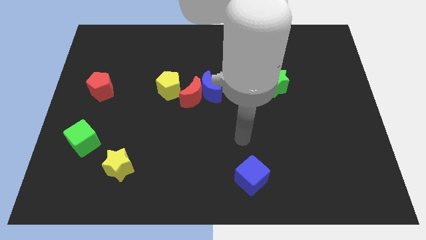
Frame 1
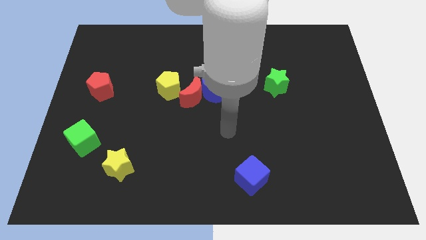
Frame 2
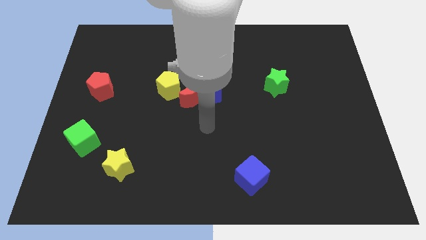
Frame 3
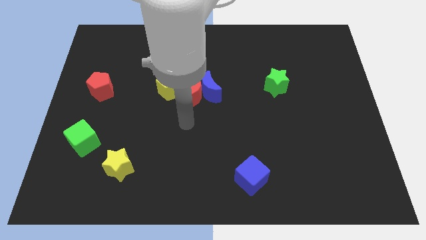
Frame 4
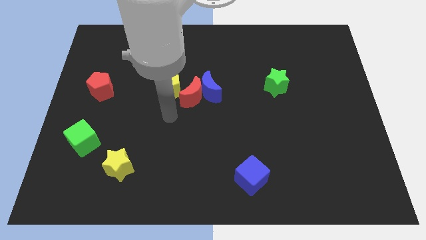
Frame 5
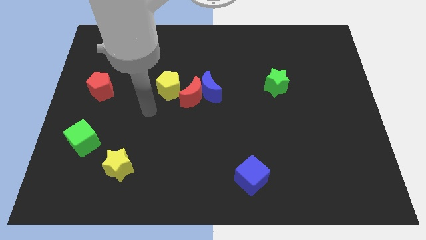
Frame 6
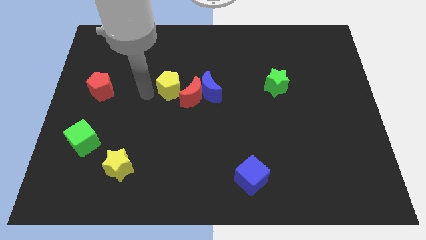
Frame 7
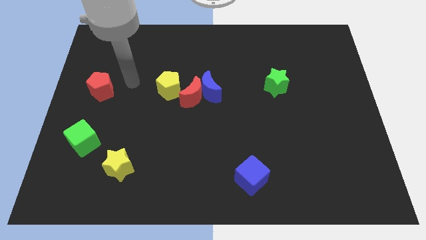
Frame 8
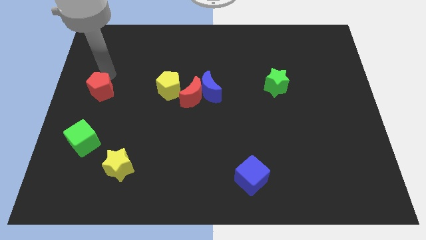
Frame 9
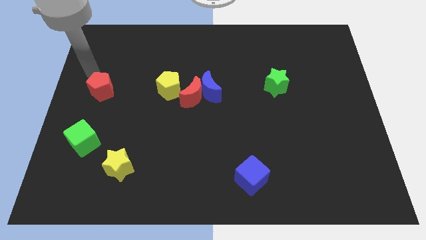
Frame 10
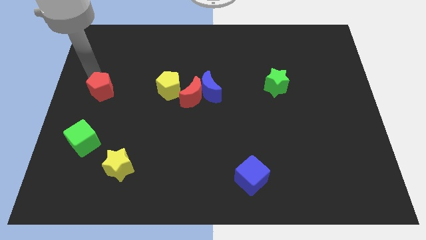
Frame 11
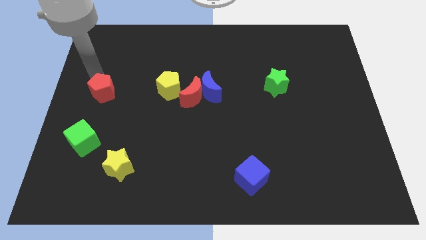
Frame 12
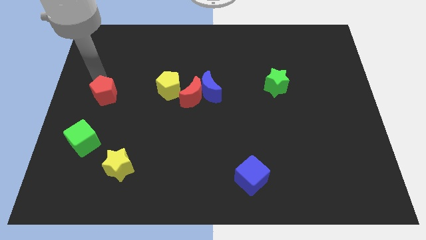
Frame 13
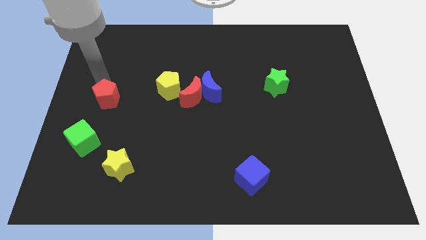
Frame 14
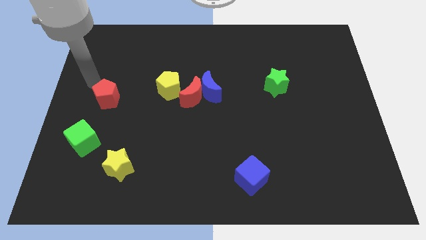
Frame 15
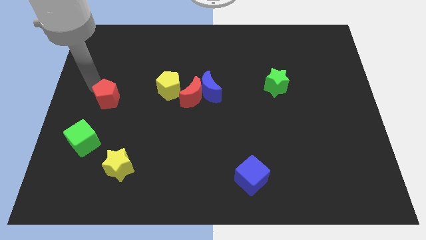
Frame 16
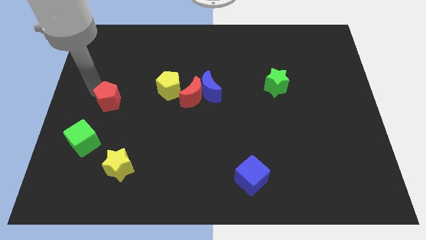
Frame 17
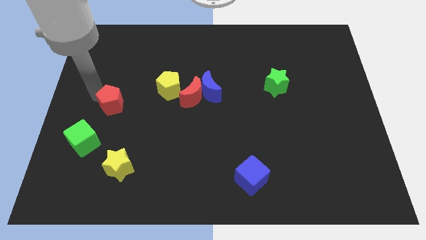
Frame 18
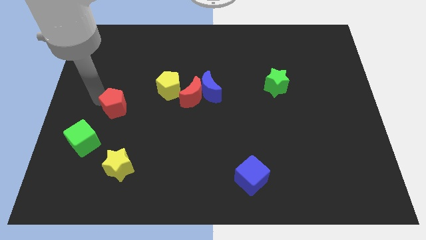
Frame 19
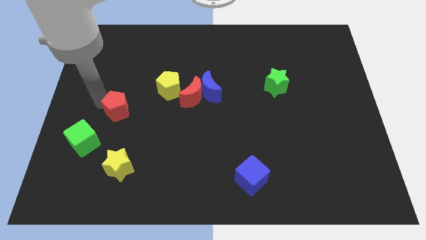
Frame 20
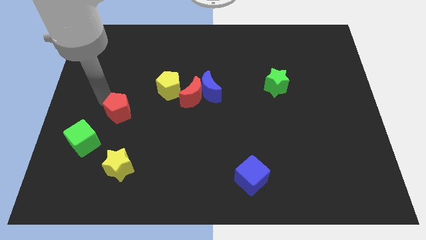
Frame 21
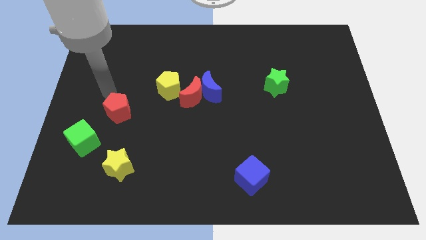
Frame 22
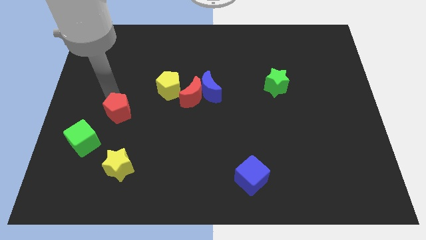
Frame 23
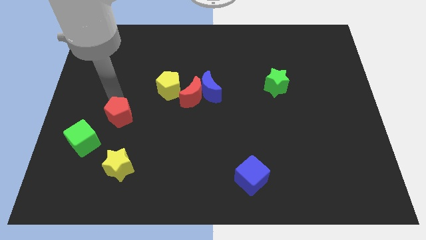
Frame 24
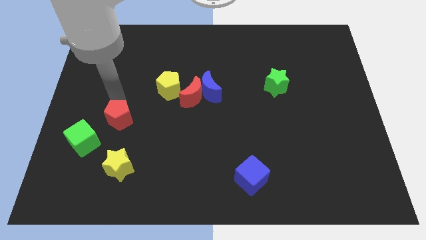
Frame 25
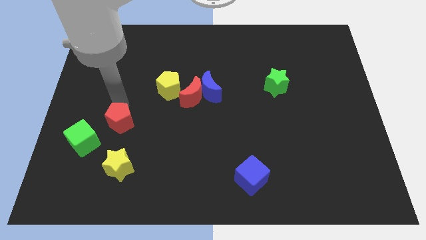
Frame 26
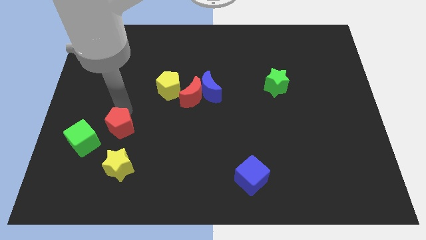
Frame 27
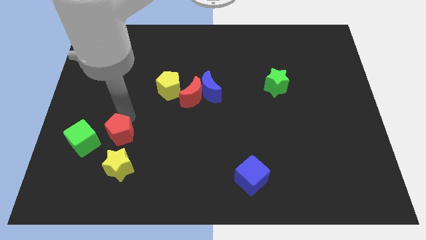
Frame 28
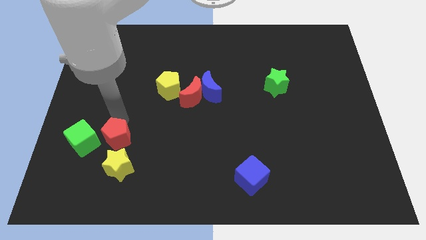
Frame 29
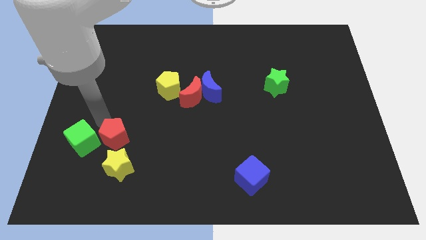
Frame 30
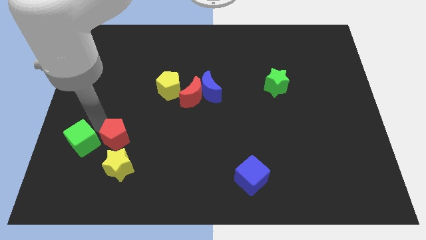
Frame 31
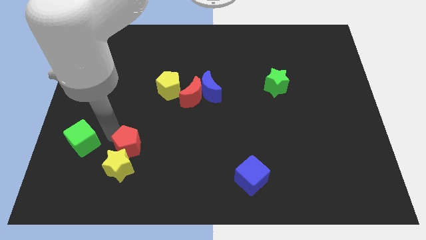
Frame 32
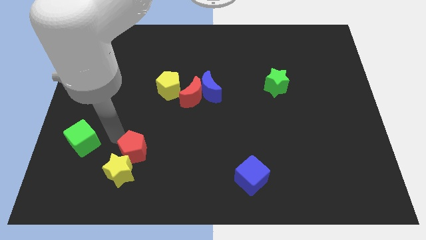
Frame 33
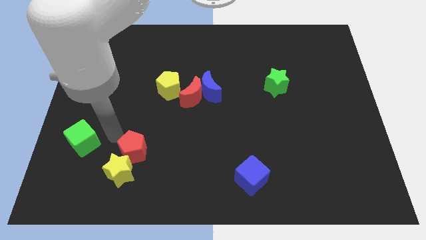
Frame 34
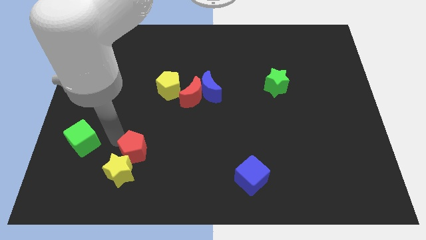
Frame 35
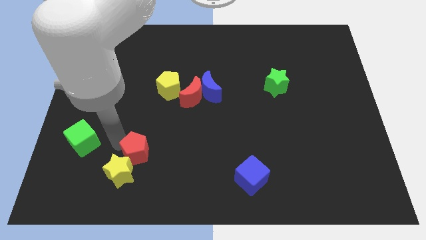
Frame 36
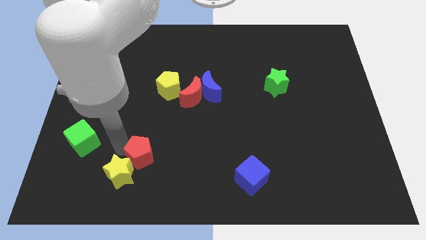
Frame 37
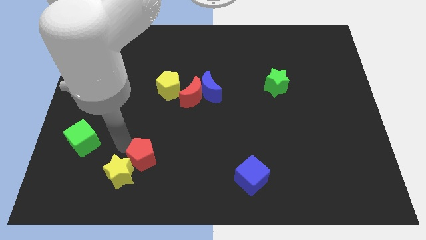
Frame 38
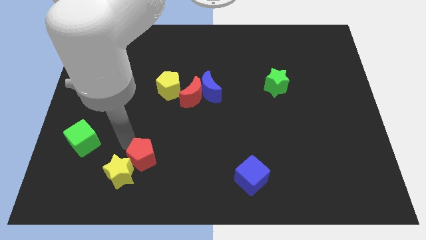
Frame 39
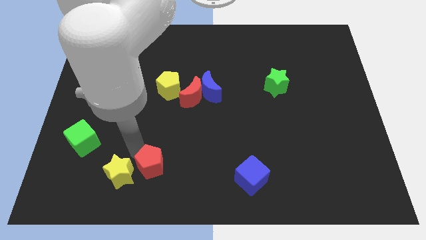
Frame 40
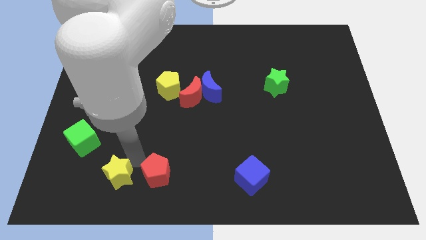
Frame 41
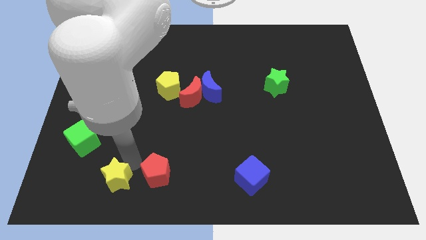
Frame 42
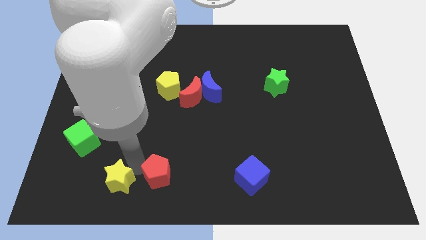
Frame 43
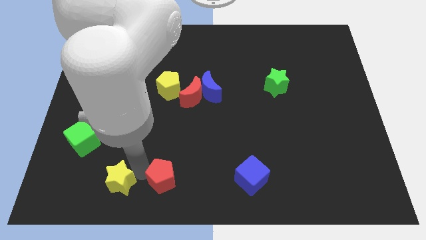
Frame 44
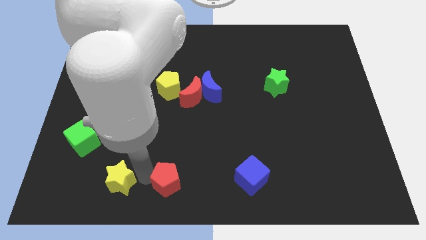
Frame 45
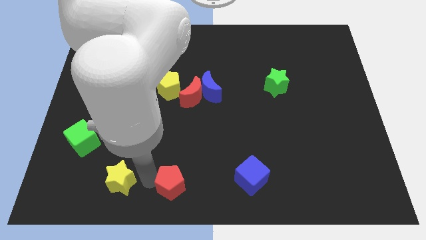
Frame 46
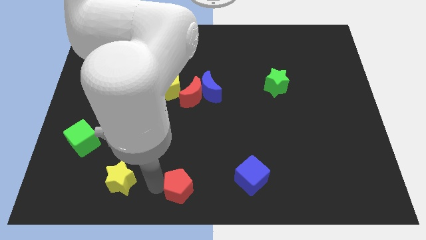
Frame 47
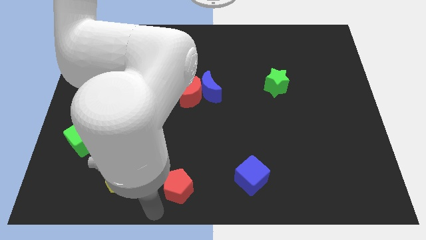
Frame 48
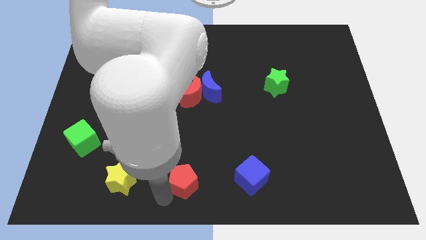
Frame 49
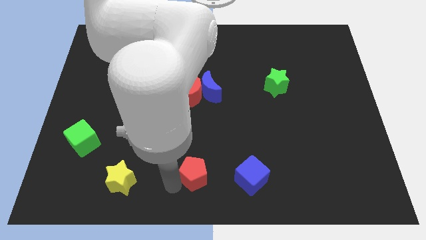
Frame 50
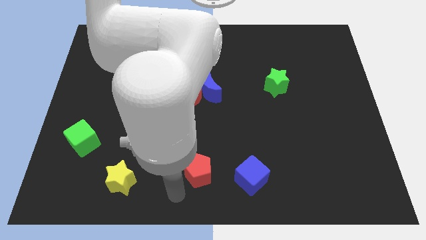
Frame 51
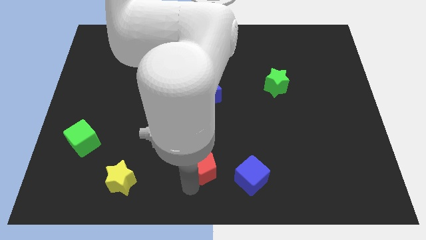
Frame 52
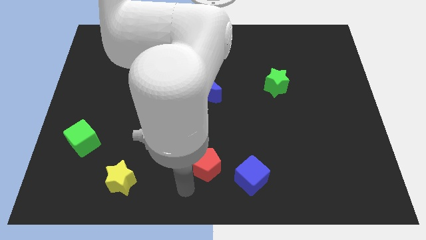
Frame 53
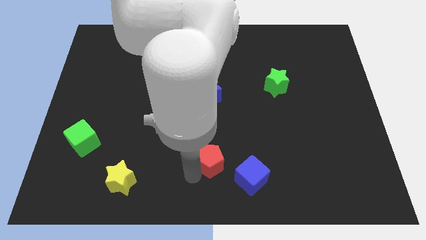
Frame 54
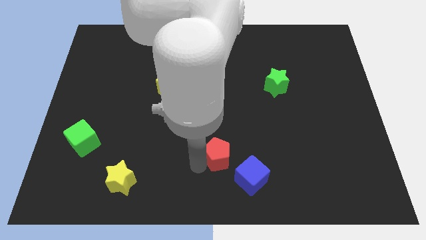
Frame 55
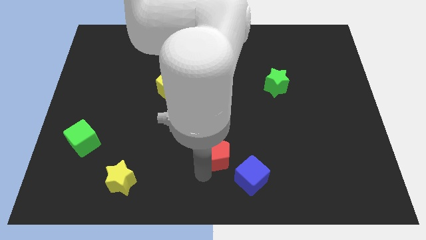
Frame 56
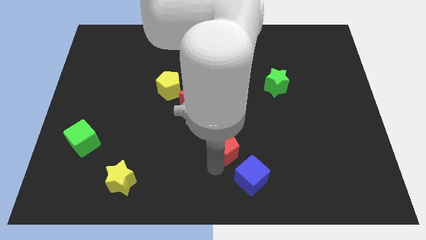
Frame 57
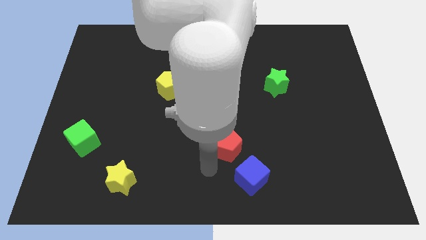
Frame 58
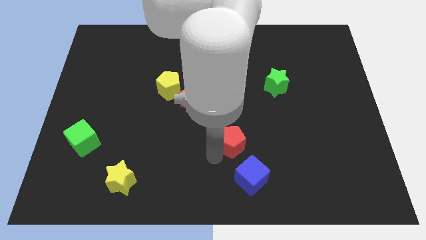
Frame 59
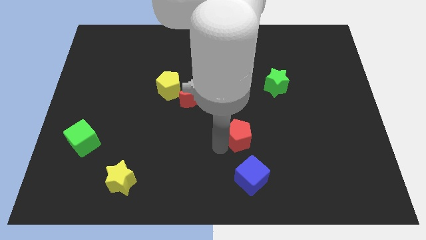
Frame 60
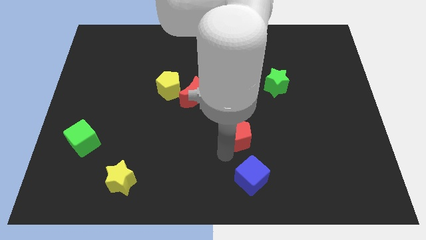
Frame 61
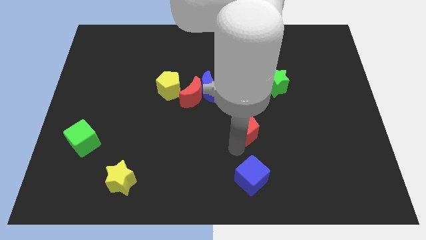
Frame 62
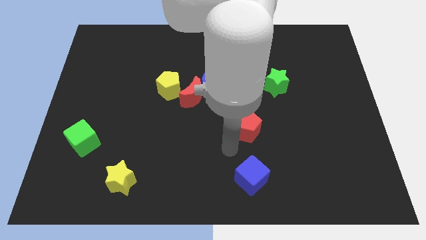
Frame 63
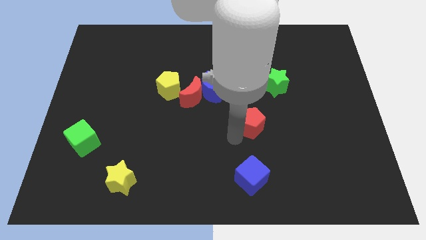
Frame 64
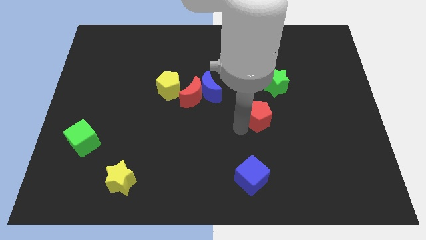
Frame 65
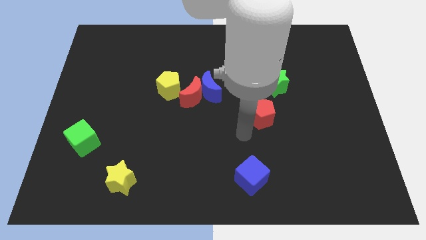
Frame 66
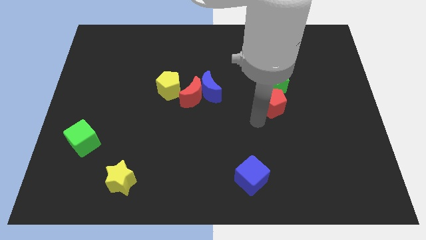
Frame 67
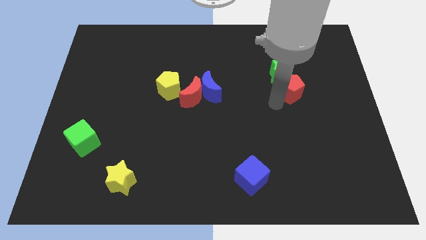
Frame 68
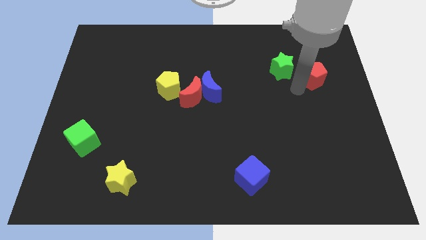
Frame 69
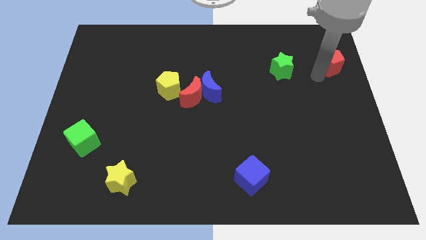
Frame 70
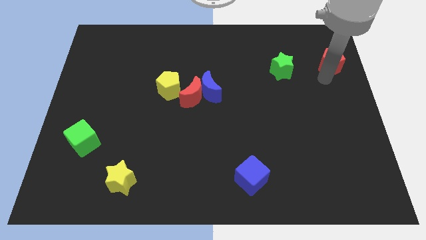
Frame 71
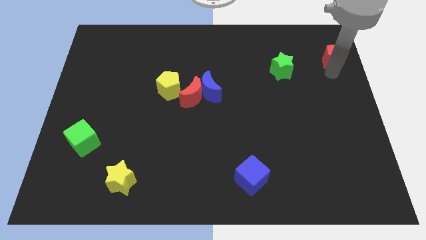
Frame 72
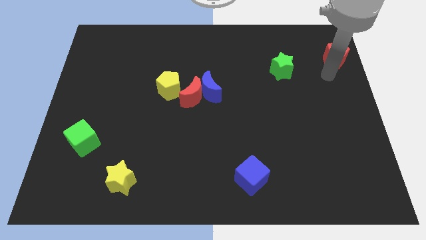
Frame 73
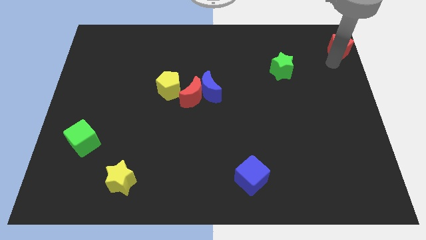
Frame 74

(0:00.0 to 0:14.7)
put the red pentagon to the top right of the board
